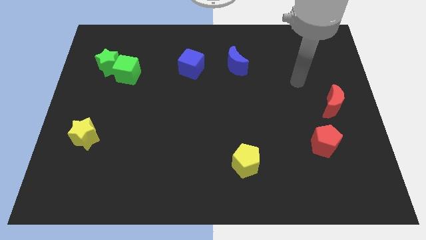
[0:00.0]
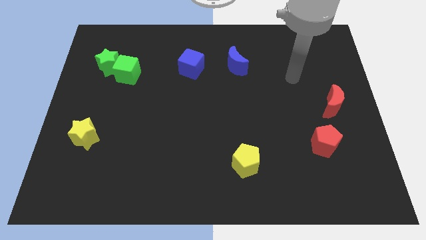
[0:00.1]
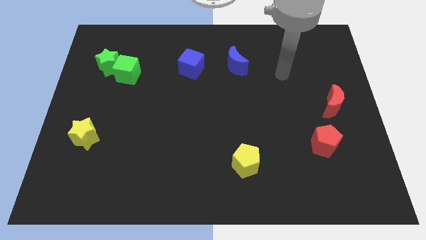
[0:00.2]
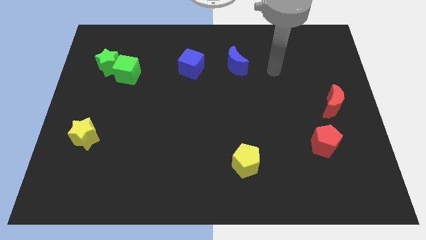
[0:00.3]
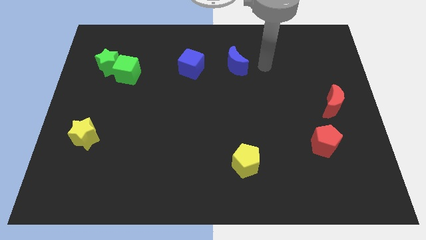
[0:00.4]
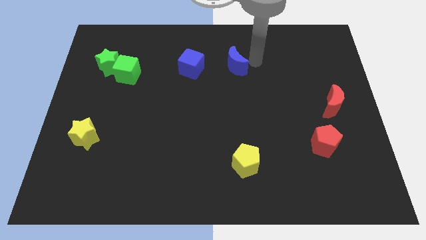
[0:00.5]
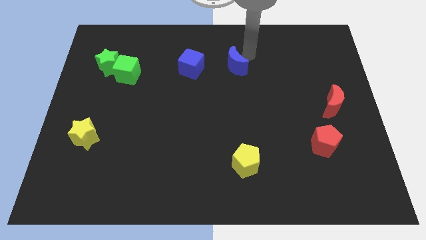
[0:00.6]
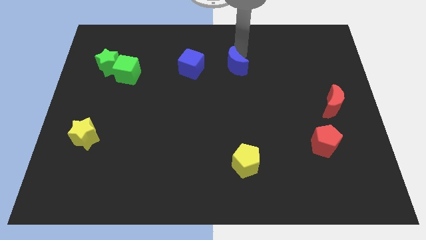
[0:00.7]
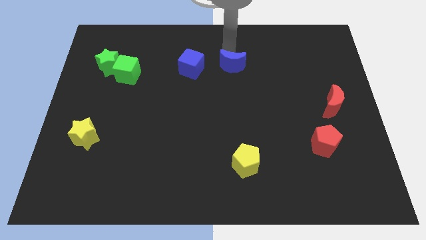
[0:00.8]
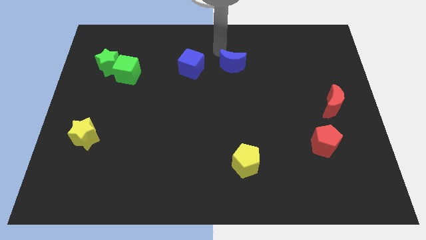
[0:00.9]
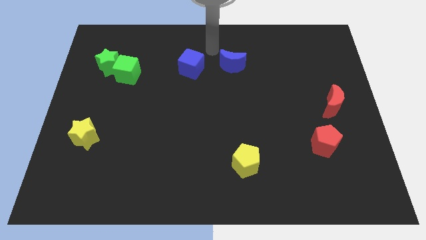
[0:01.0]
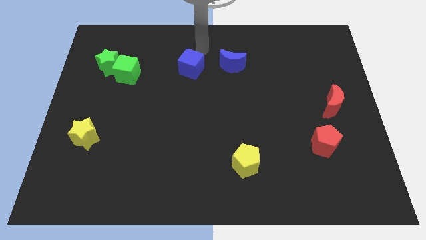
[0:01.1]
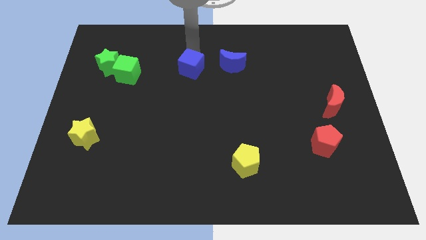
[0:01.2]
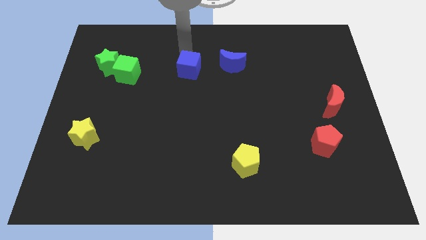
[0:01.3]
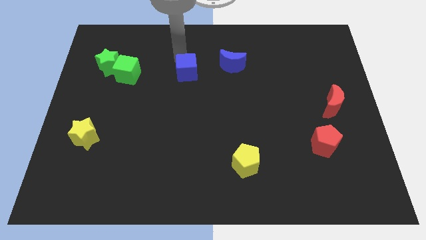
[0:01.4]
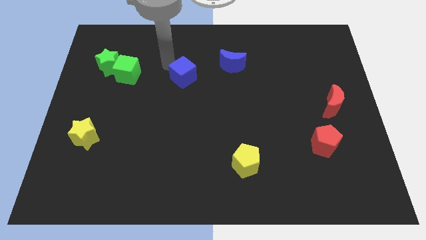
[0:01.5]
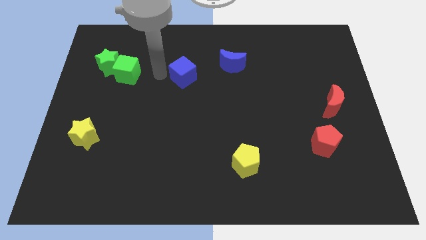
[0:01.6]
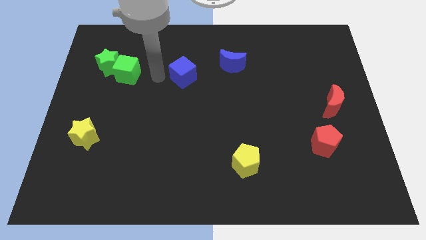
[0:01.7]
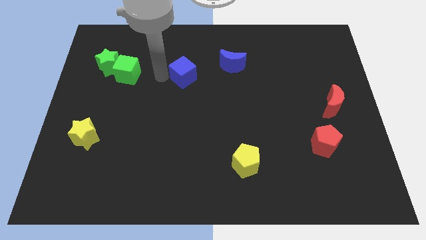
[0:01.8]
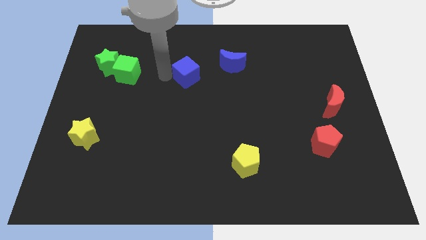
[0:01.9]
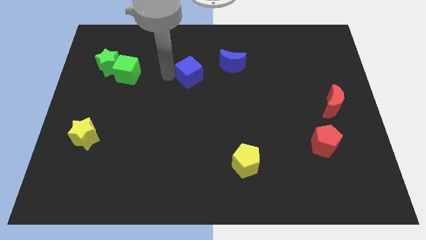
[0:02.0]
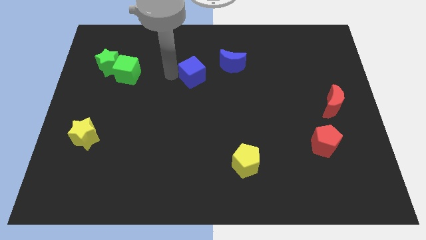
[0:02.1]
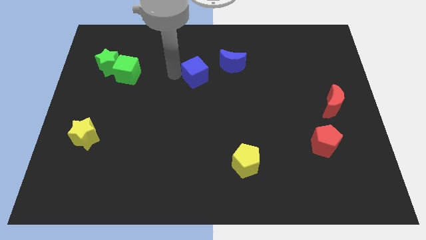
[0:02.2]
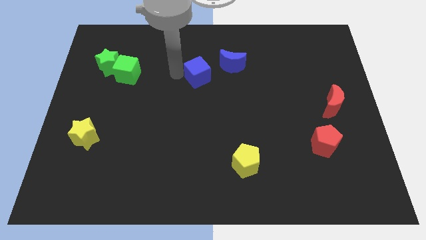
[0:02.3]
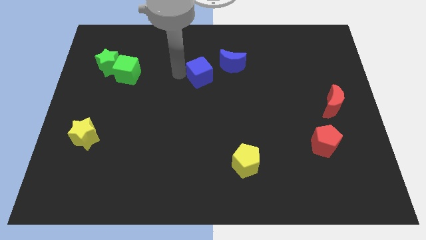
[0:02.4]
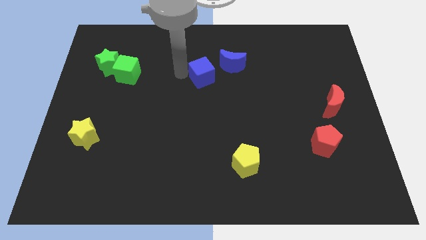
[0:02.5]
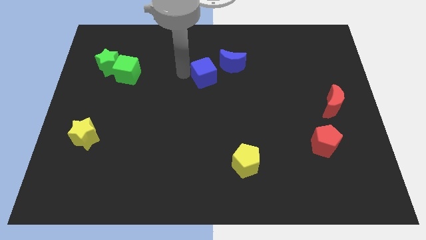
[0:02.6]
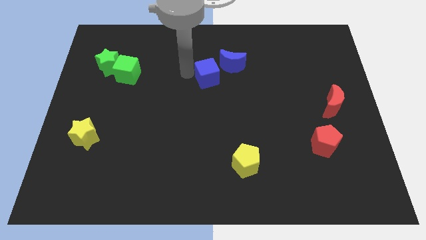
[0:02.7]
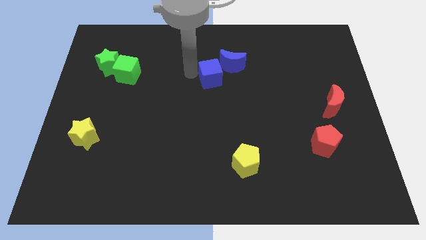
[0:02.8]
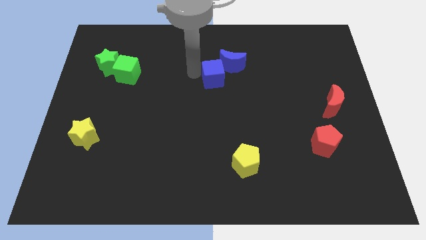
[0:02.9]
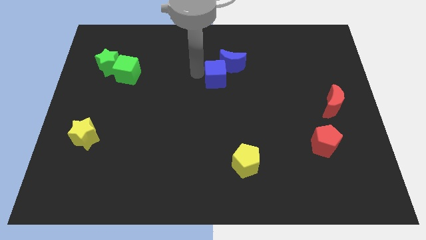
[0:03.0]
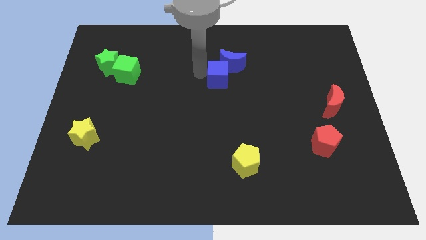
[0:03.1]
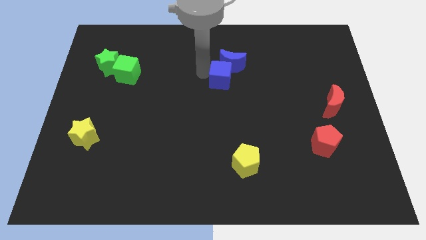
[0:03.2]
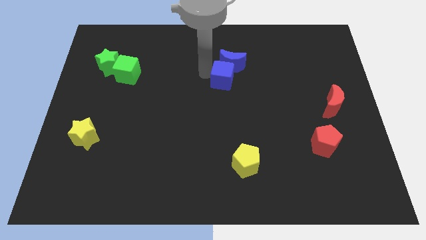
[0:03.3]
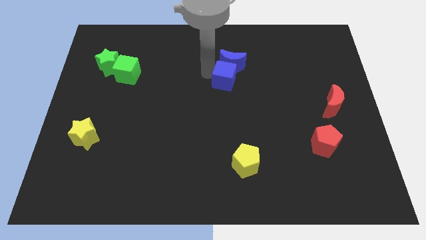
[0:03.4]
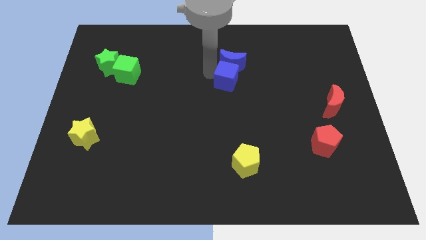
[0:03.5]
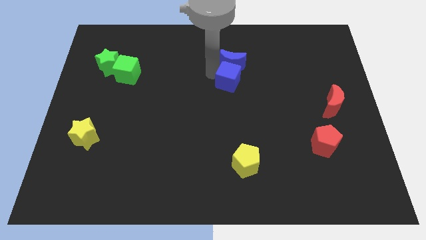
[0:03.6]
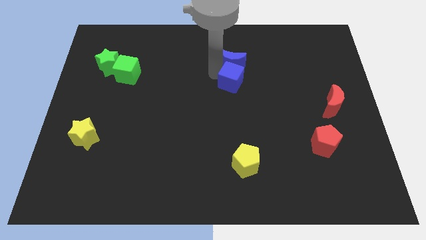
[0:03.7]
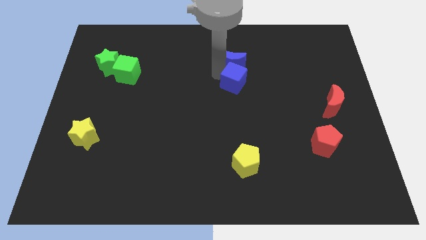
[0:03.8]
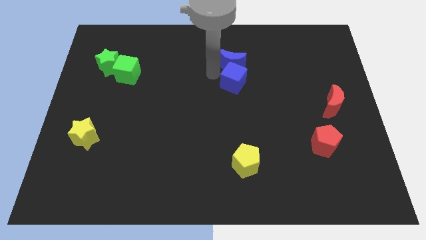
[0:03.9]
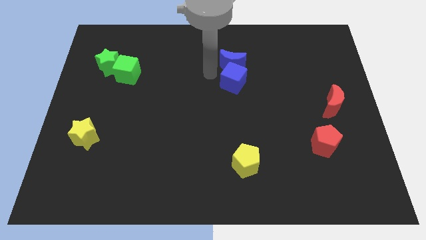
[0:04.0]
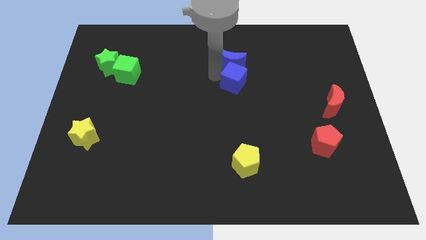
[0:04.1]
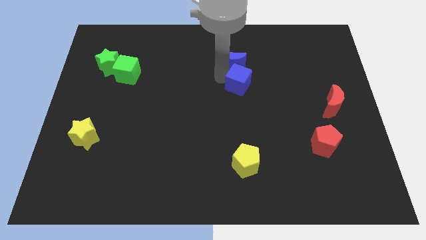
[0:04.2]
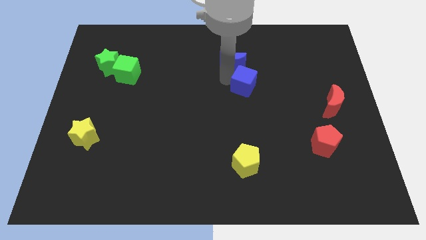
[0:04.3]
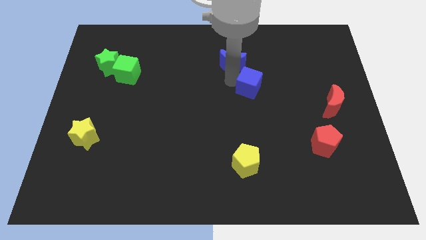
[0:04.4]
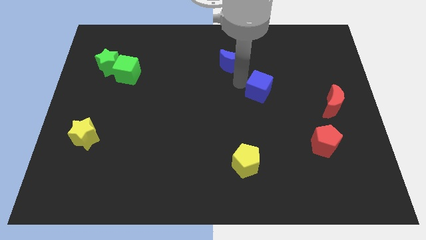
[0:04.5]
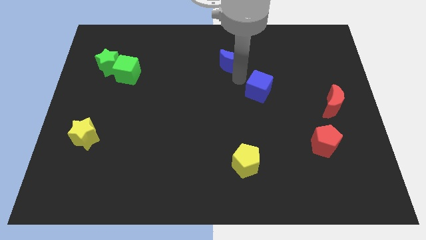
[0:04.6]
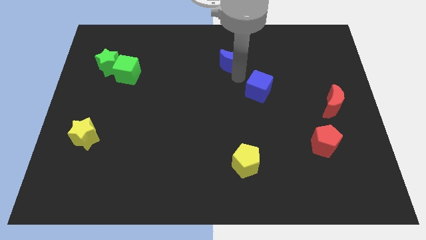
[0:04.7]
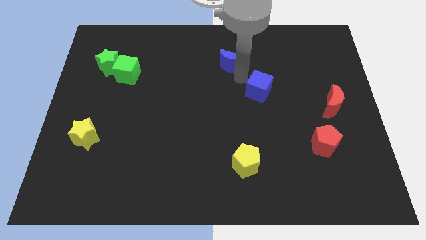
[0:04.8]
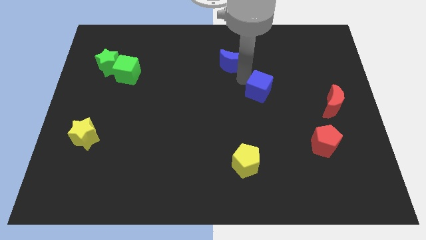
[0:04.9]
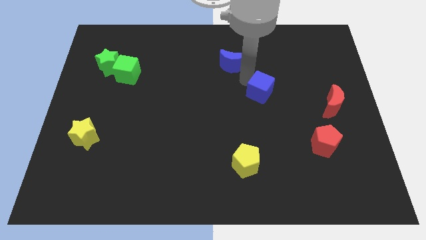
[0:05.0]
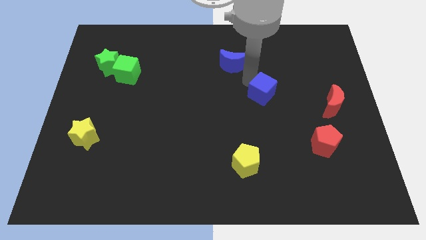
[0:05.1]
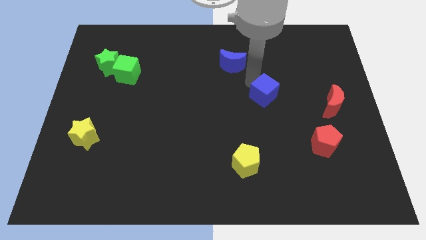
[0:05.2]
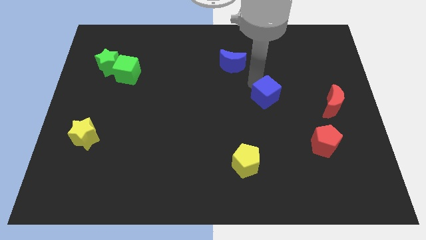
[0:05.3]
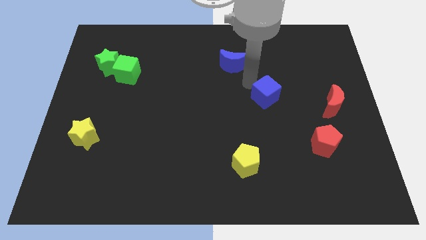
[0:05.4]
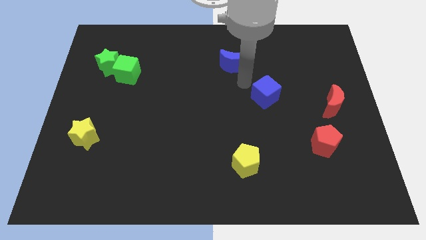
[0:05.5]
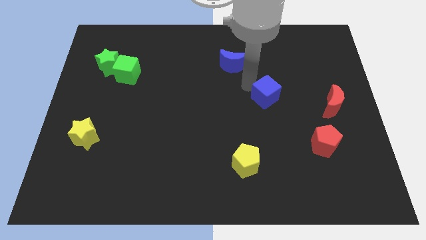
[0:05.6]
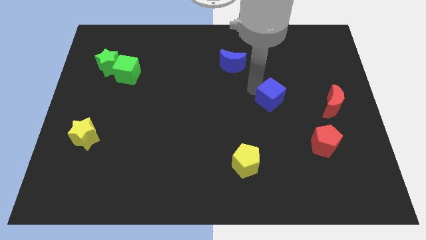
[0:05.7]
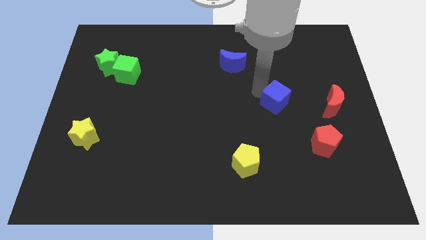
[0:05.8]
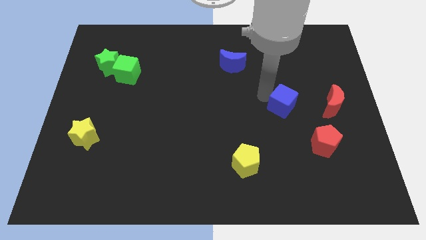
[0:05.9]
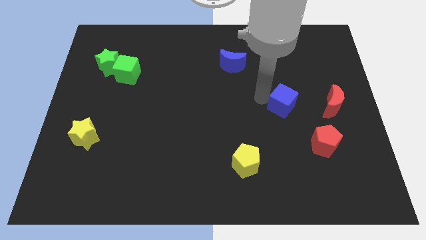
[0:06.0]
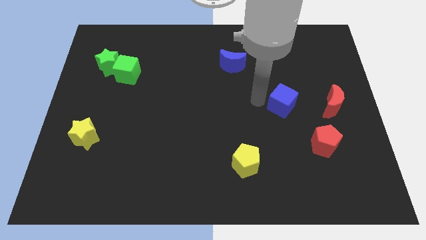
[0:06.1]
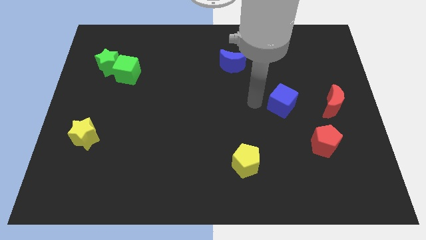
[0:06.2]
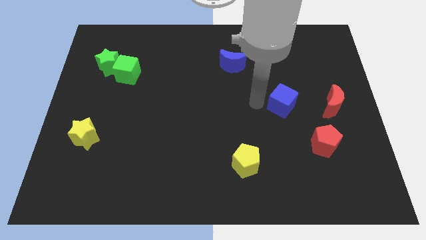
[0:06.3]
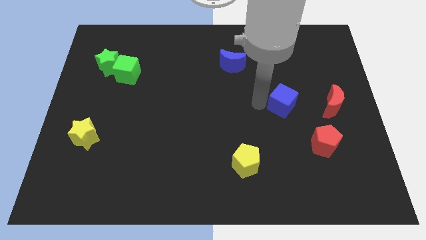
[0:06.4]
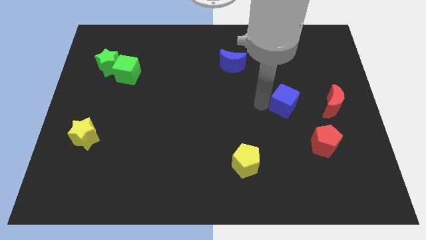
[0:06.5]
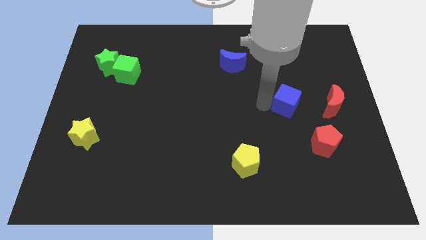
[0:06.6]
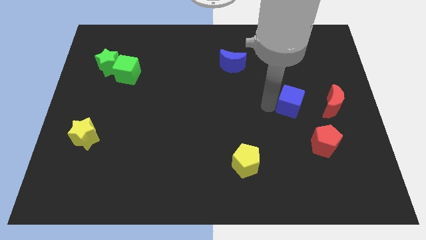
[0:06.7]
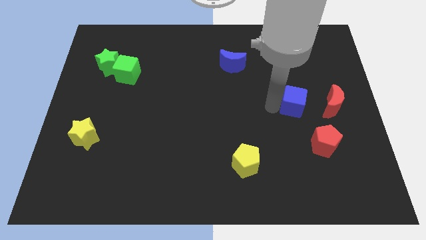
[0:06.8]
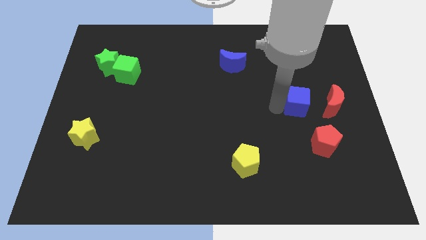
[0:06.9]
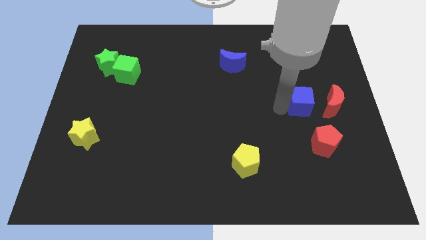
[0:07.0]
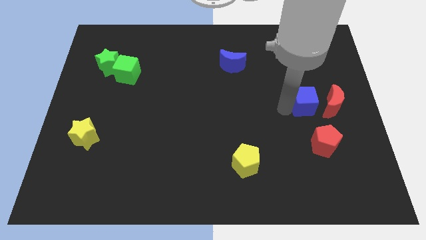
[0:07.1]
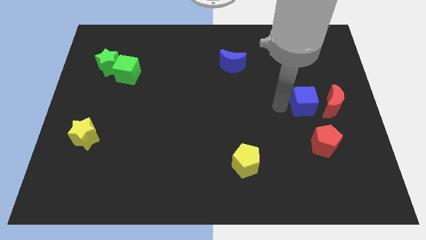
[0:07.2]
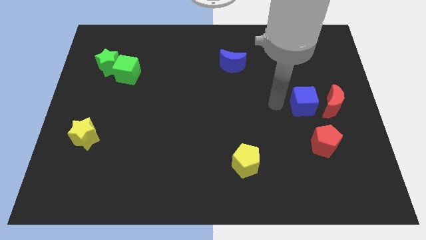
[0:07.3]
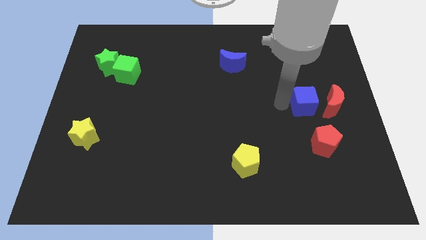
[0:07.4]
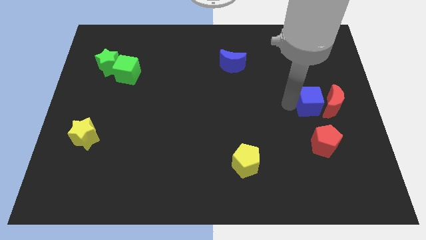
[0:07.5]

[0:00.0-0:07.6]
put the blue cube close to the red moon

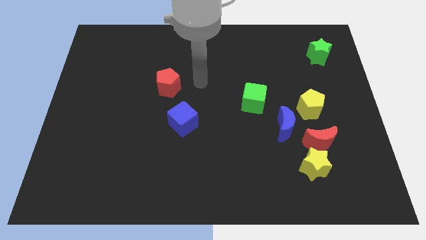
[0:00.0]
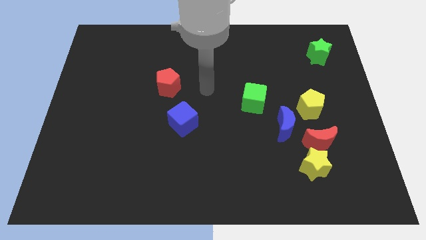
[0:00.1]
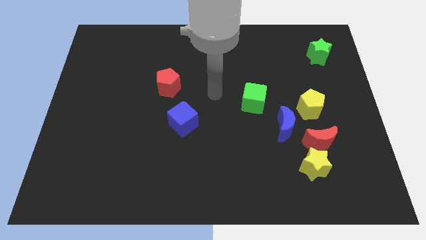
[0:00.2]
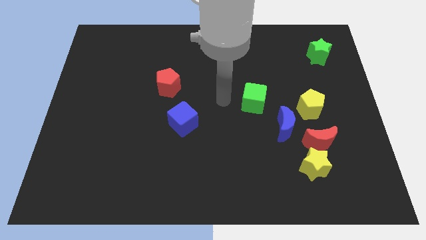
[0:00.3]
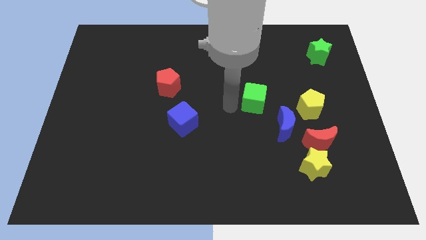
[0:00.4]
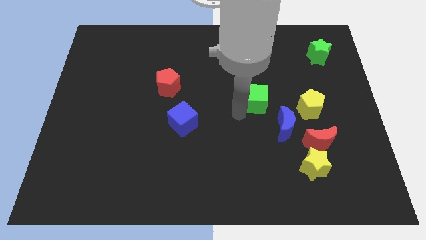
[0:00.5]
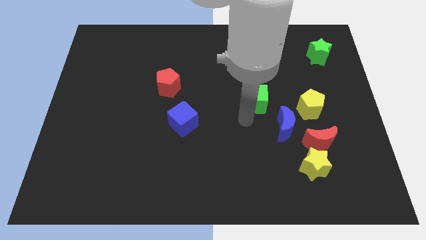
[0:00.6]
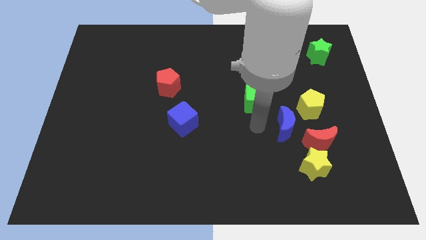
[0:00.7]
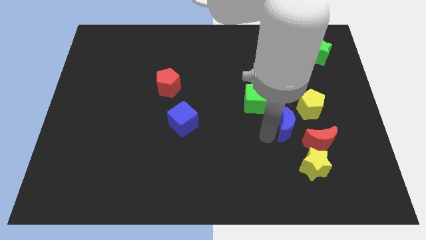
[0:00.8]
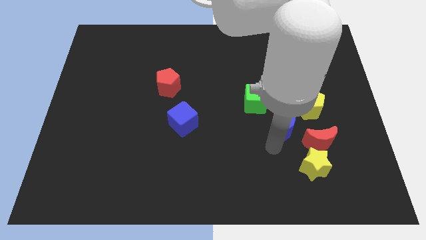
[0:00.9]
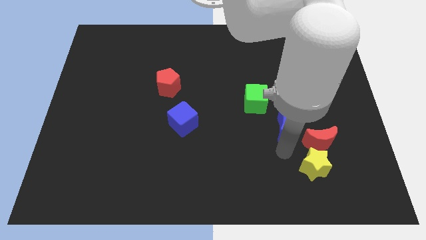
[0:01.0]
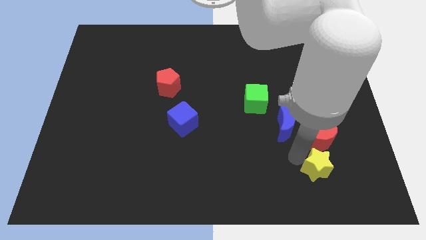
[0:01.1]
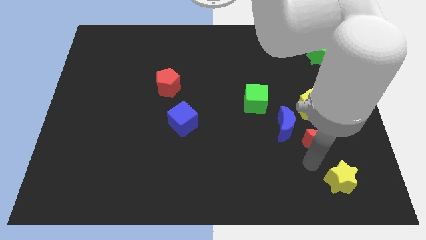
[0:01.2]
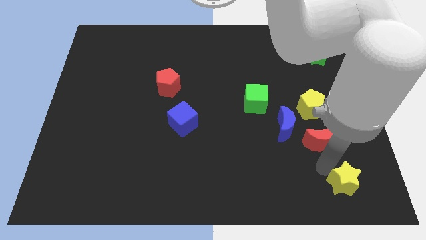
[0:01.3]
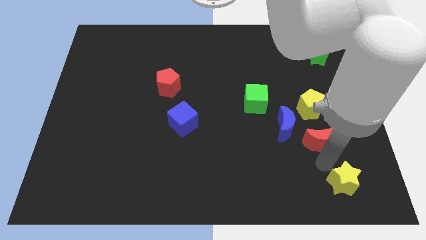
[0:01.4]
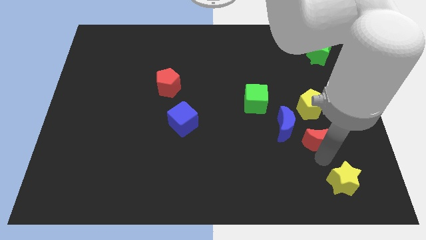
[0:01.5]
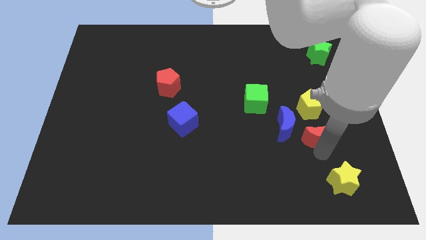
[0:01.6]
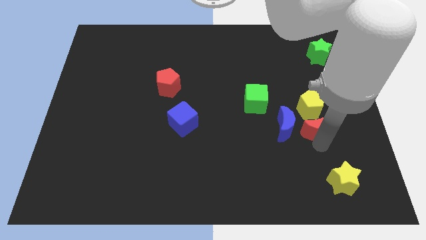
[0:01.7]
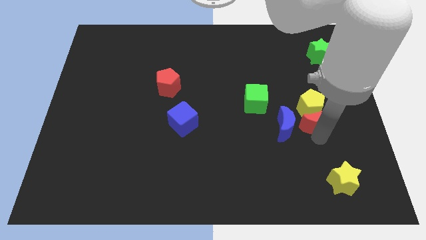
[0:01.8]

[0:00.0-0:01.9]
push the red moon close to the yellow pentagon
